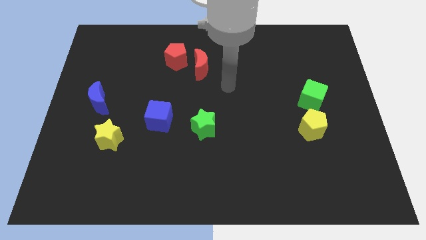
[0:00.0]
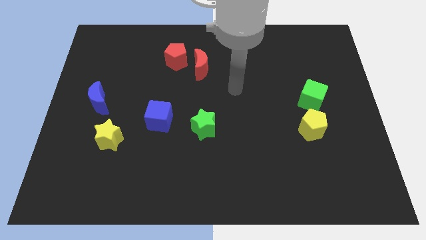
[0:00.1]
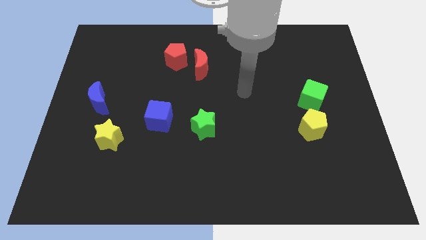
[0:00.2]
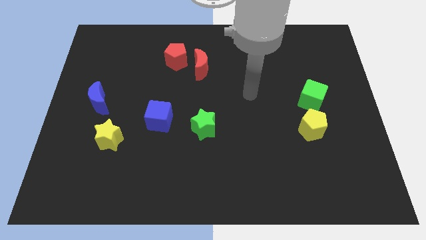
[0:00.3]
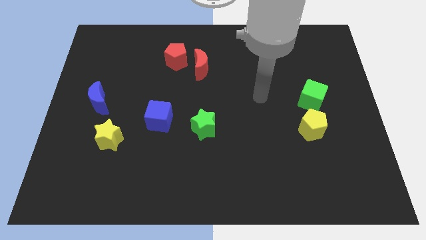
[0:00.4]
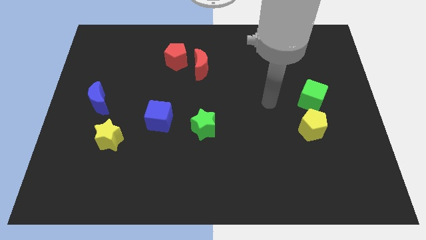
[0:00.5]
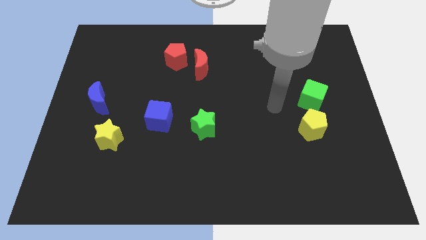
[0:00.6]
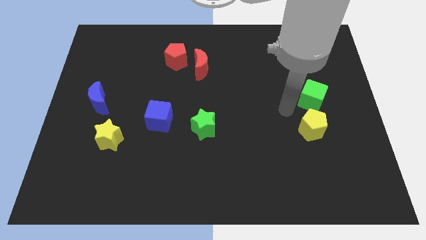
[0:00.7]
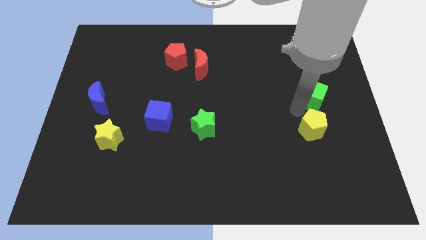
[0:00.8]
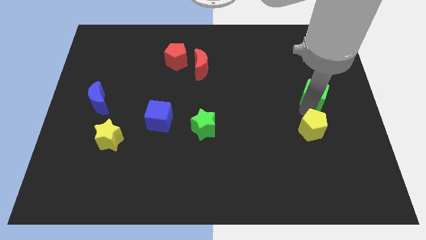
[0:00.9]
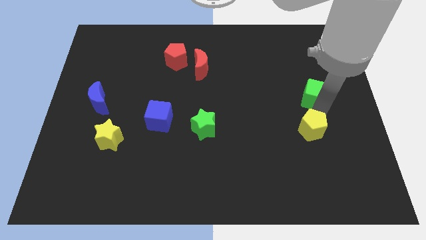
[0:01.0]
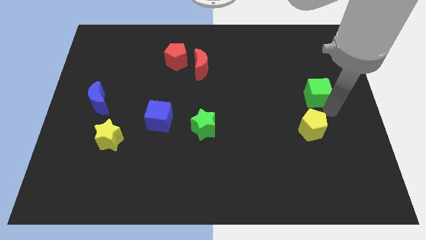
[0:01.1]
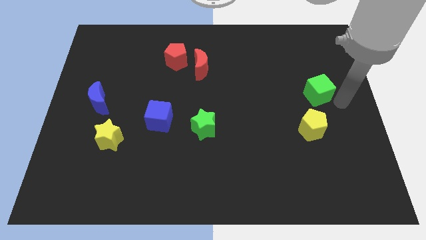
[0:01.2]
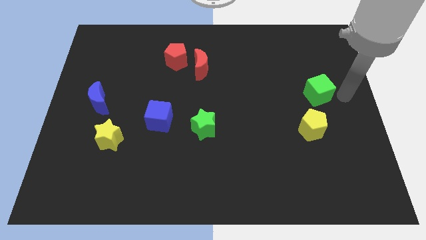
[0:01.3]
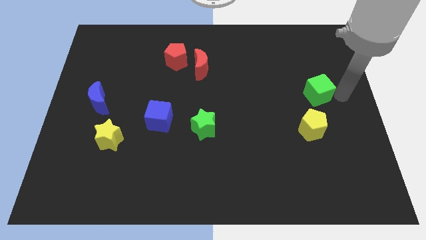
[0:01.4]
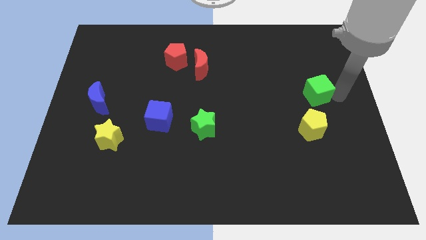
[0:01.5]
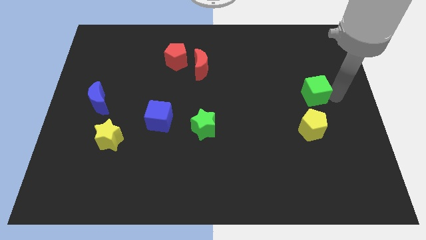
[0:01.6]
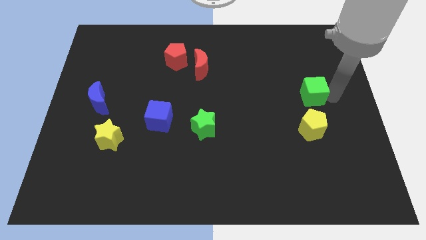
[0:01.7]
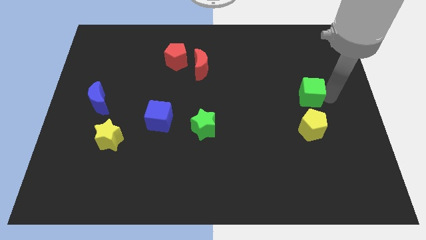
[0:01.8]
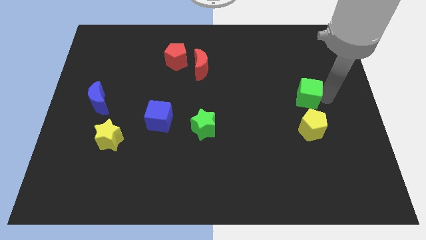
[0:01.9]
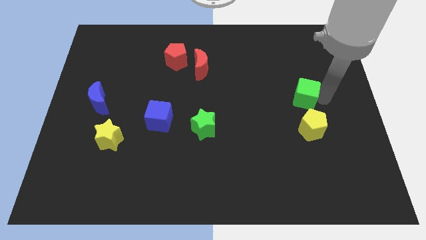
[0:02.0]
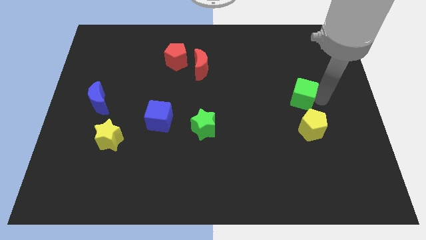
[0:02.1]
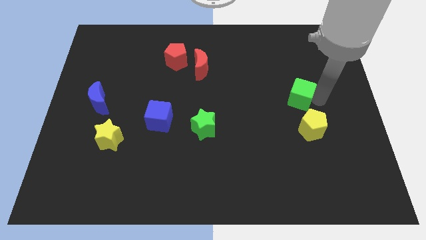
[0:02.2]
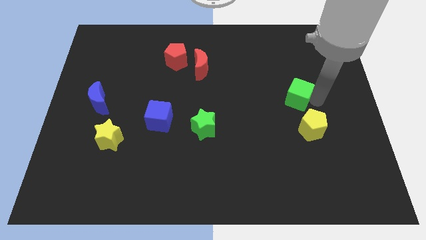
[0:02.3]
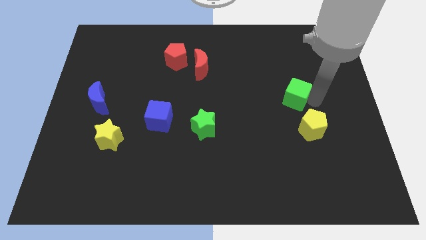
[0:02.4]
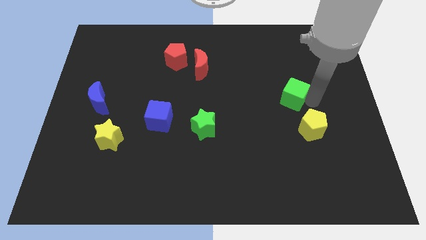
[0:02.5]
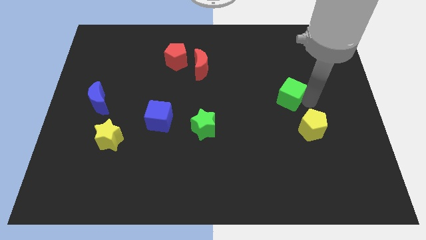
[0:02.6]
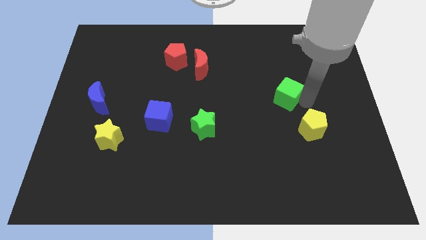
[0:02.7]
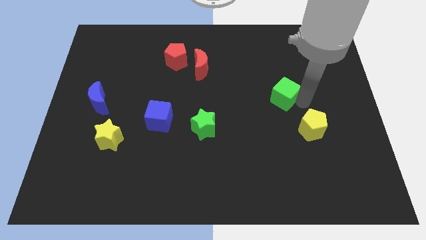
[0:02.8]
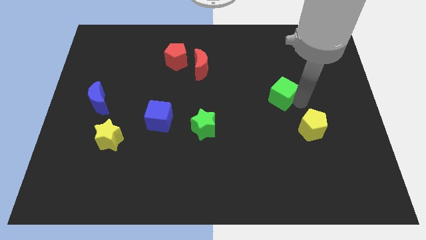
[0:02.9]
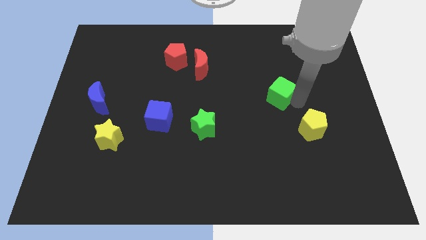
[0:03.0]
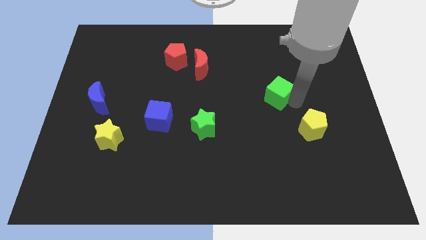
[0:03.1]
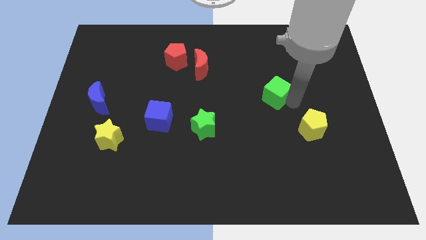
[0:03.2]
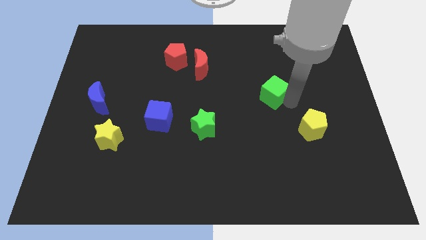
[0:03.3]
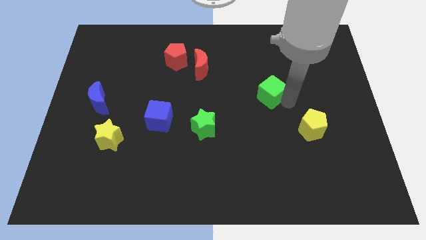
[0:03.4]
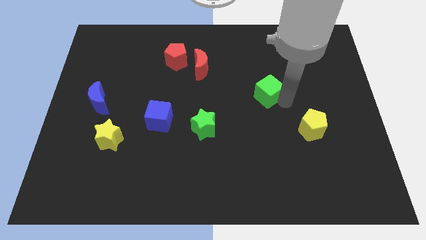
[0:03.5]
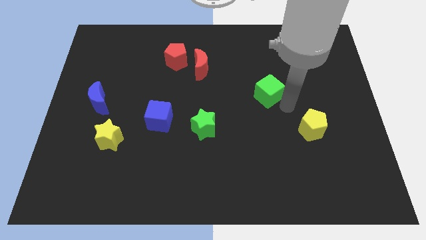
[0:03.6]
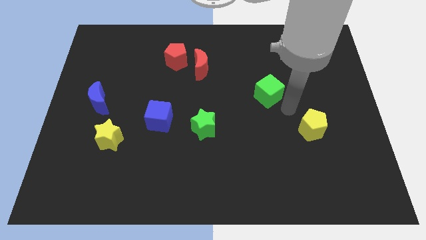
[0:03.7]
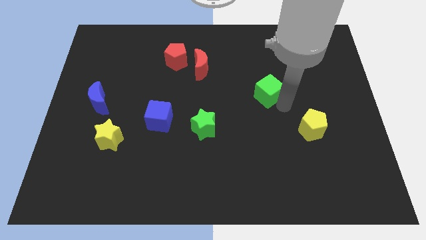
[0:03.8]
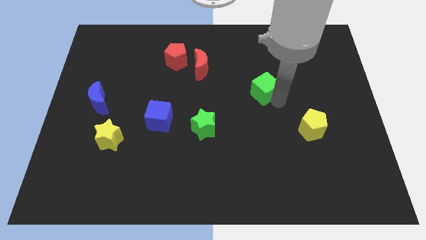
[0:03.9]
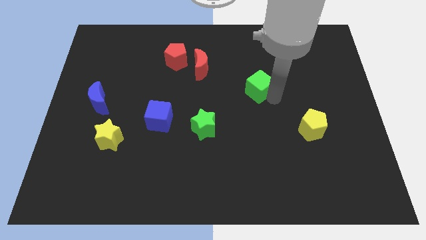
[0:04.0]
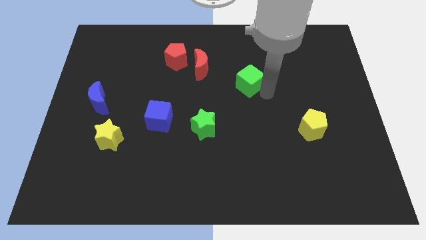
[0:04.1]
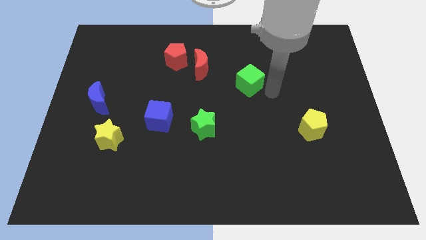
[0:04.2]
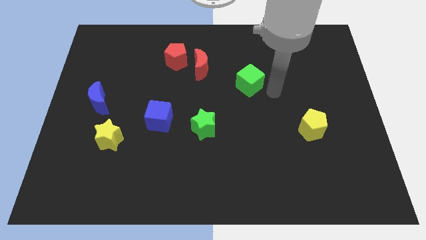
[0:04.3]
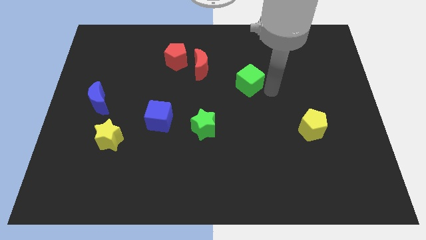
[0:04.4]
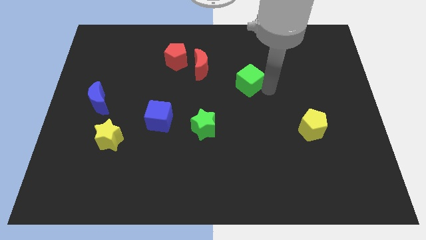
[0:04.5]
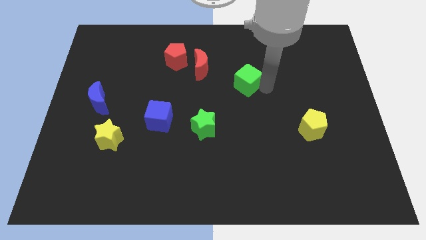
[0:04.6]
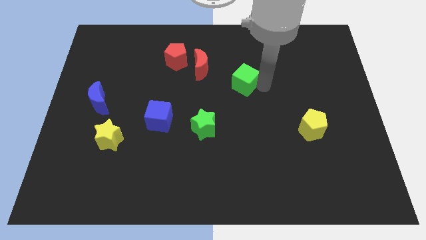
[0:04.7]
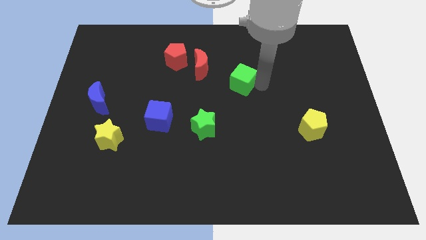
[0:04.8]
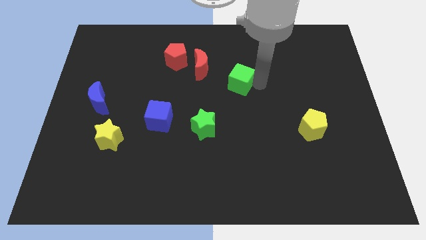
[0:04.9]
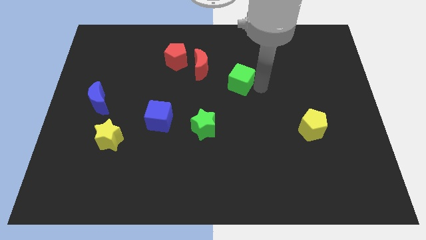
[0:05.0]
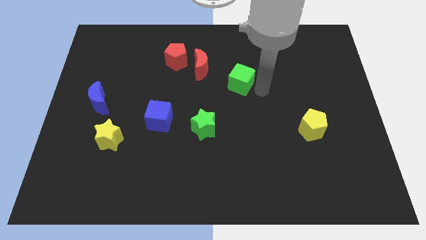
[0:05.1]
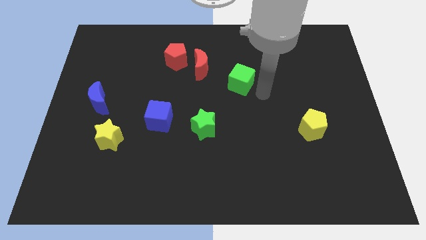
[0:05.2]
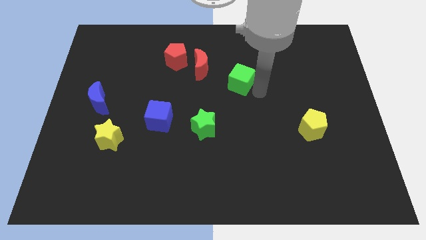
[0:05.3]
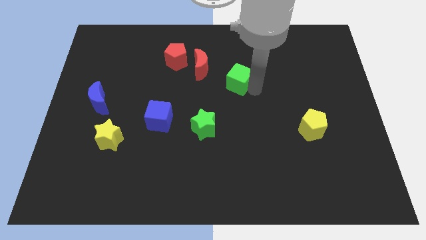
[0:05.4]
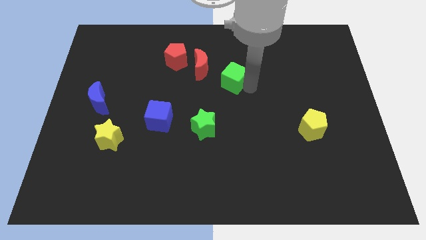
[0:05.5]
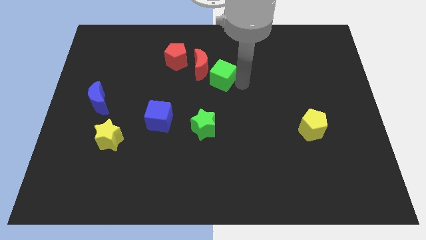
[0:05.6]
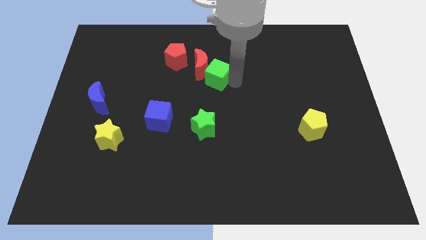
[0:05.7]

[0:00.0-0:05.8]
move the green cube towards the red moon

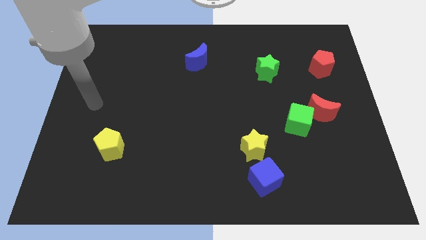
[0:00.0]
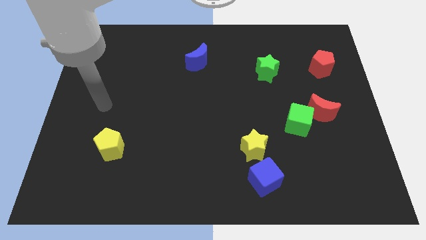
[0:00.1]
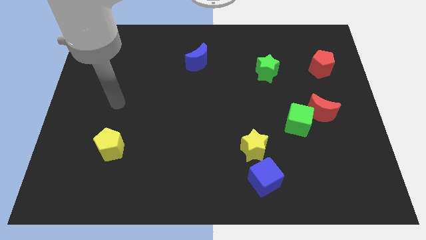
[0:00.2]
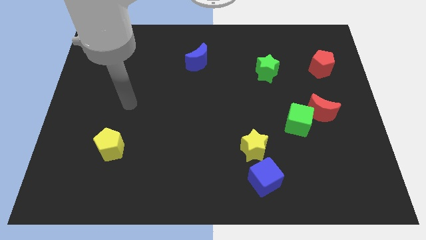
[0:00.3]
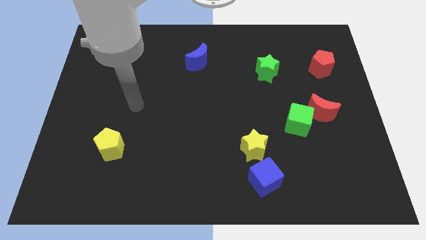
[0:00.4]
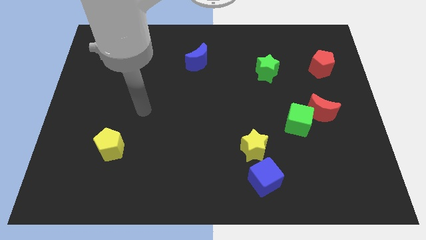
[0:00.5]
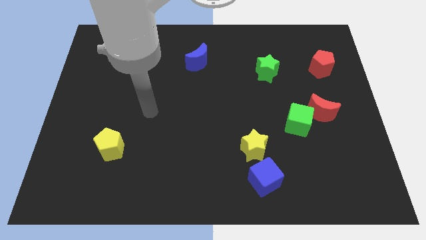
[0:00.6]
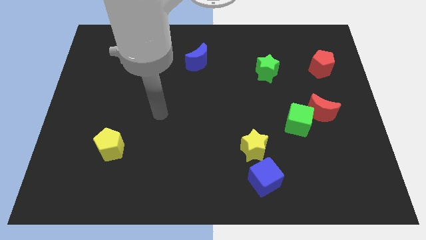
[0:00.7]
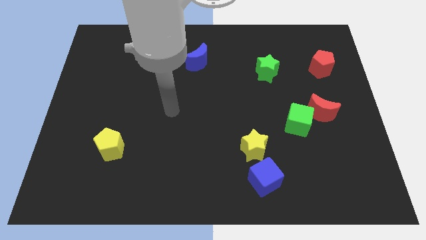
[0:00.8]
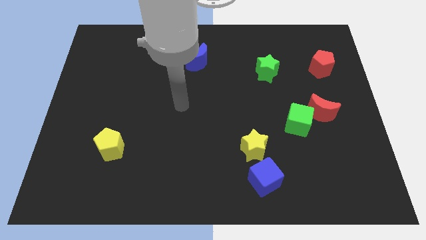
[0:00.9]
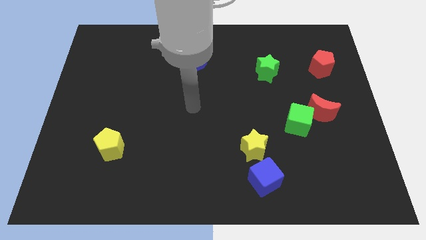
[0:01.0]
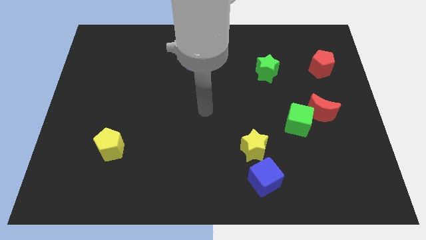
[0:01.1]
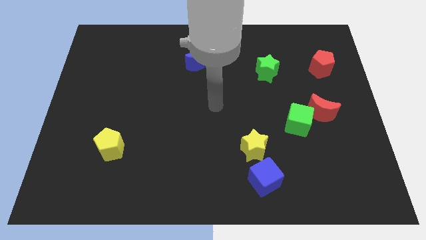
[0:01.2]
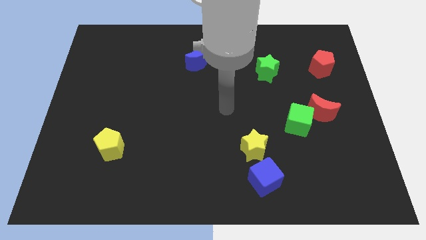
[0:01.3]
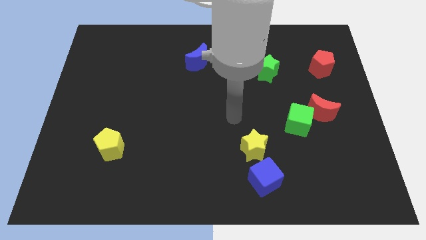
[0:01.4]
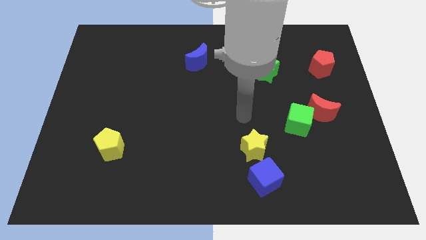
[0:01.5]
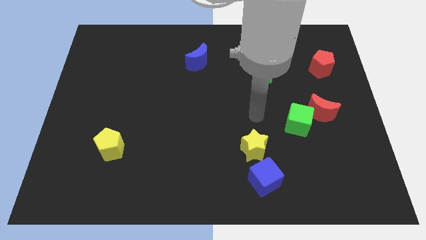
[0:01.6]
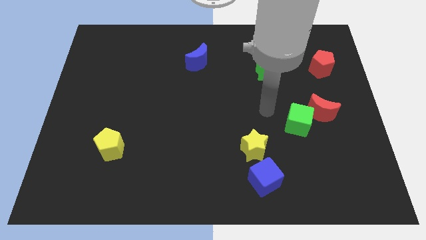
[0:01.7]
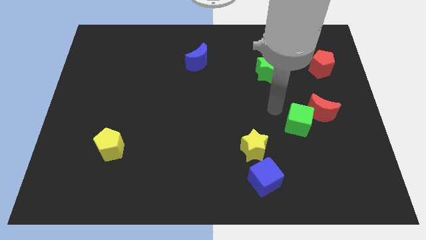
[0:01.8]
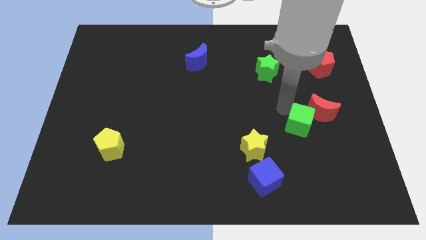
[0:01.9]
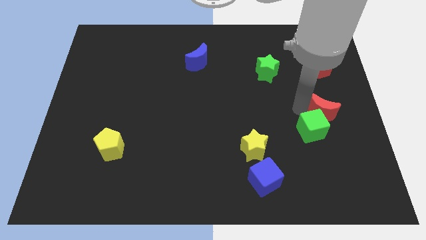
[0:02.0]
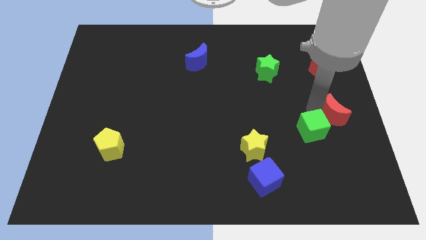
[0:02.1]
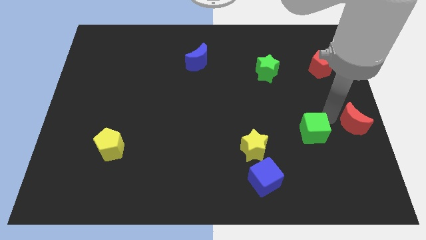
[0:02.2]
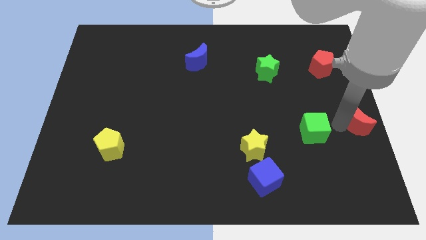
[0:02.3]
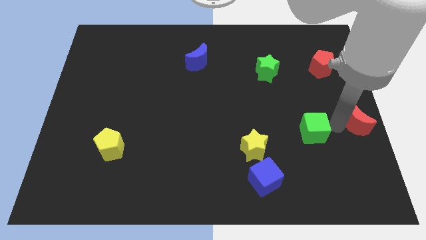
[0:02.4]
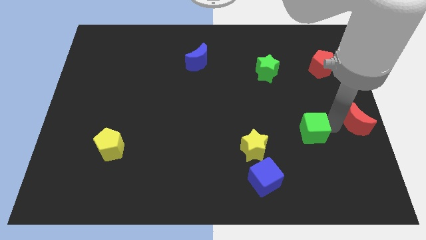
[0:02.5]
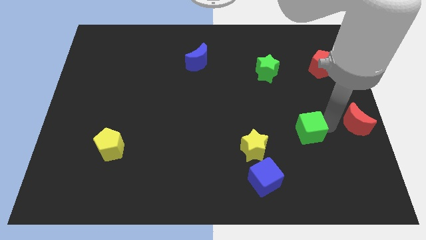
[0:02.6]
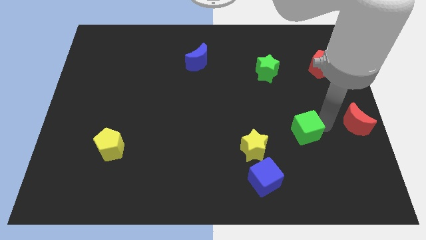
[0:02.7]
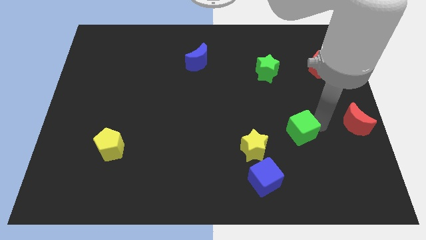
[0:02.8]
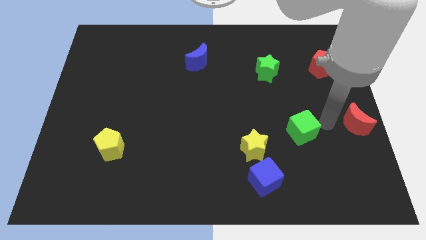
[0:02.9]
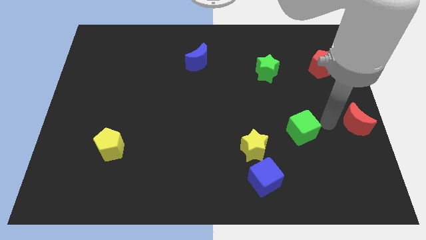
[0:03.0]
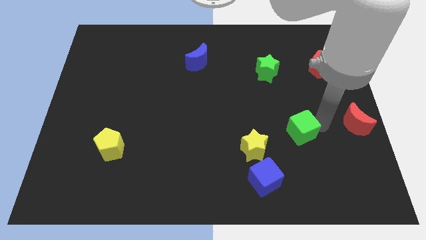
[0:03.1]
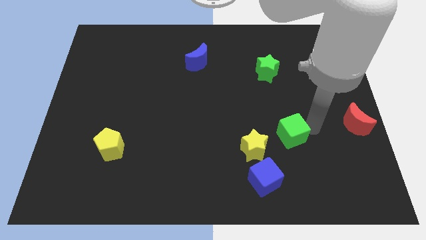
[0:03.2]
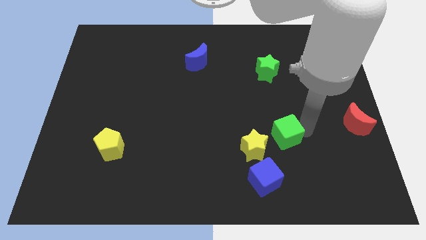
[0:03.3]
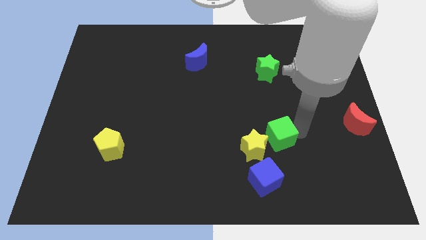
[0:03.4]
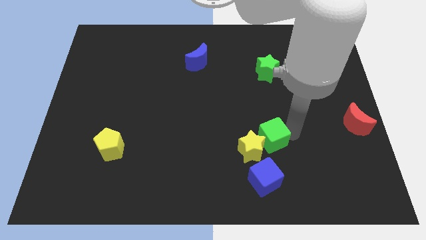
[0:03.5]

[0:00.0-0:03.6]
move the green cube next to the yellow star
